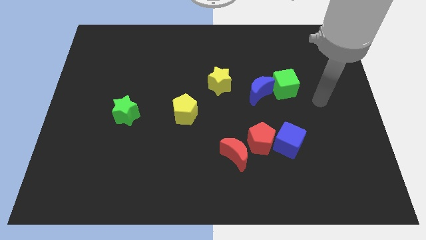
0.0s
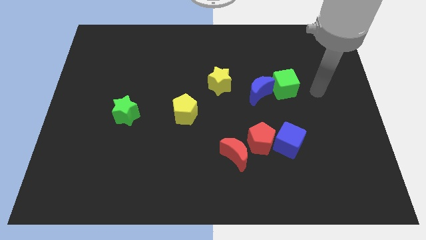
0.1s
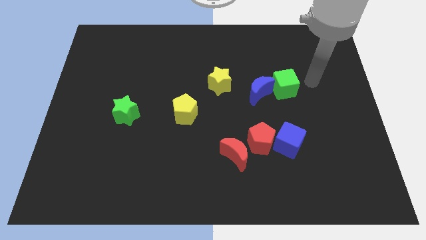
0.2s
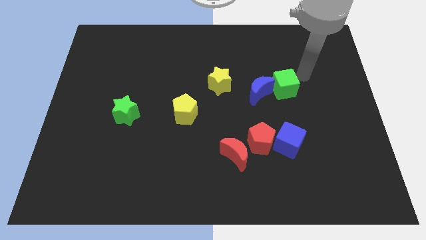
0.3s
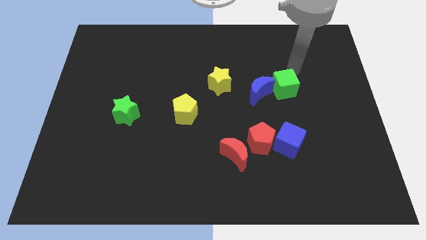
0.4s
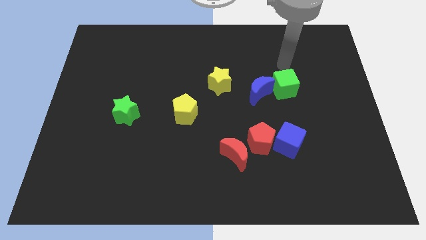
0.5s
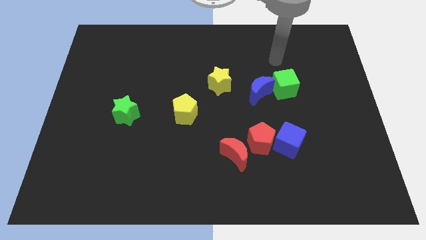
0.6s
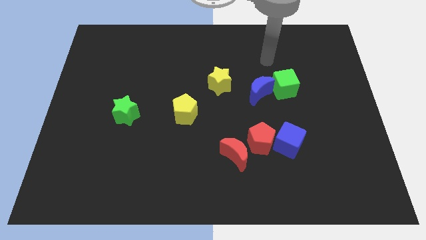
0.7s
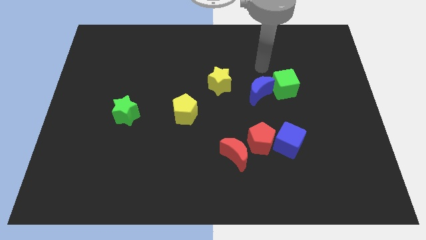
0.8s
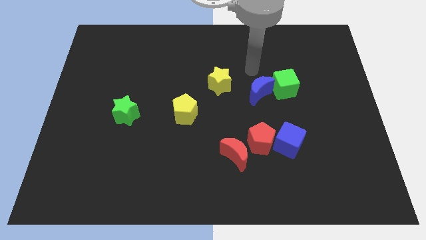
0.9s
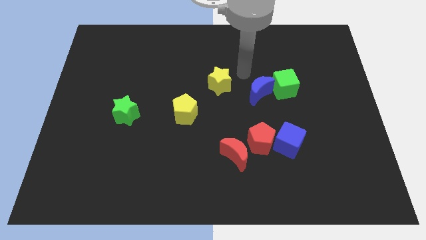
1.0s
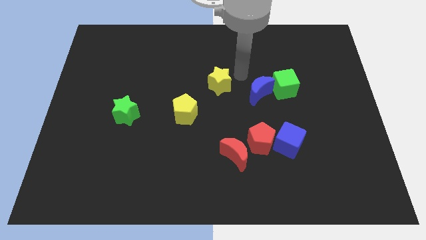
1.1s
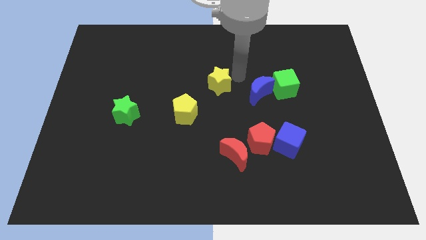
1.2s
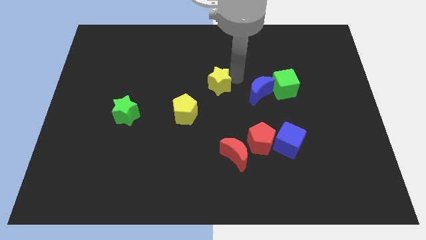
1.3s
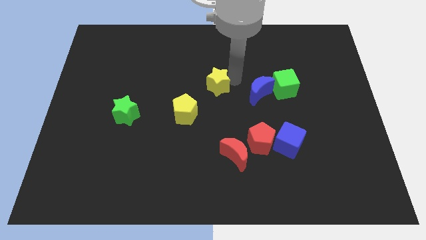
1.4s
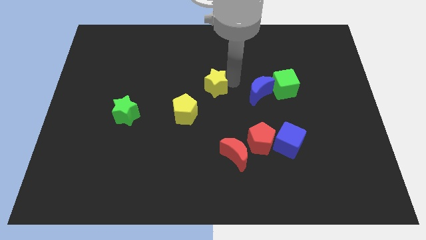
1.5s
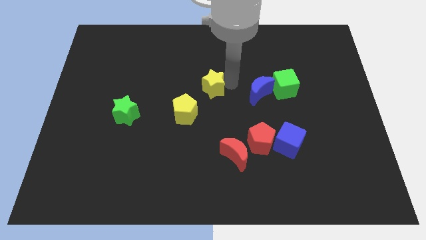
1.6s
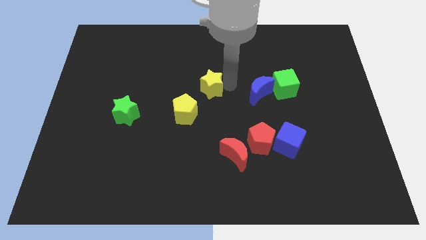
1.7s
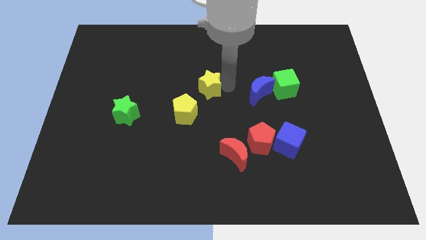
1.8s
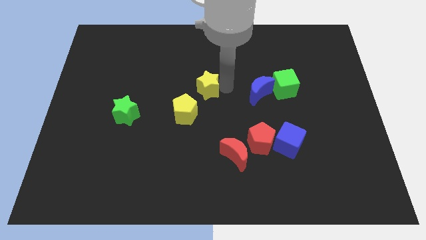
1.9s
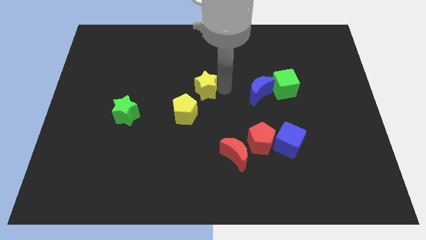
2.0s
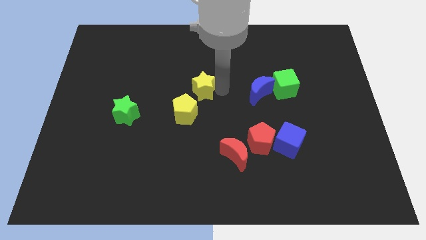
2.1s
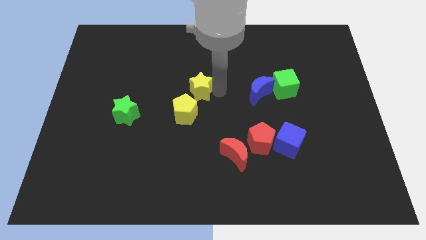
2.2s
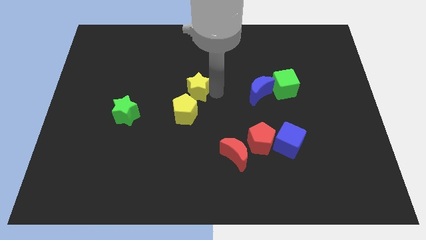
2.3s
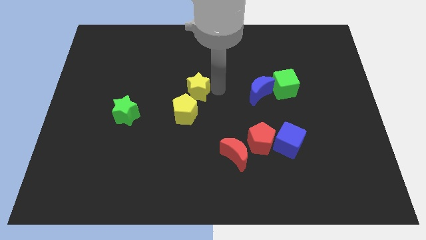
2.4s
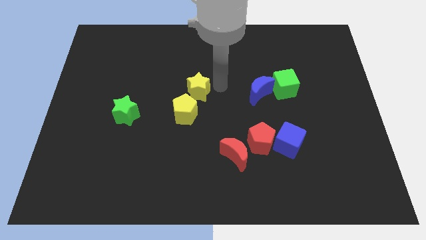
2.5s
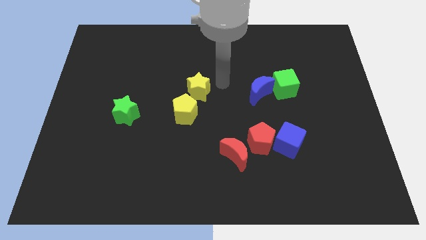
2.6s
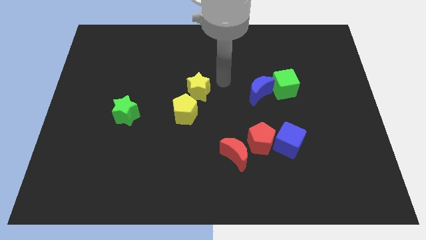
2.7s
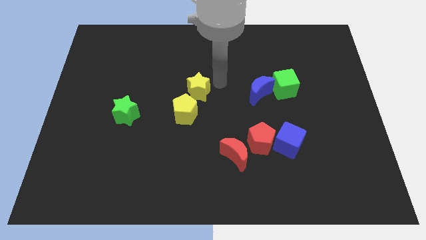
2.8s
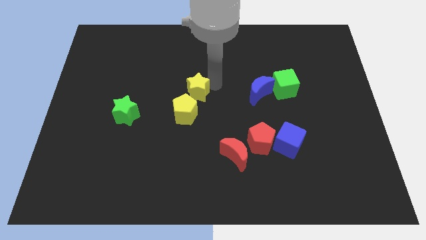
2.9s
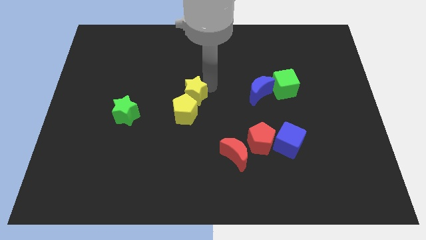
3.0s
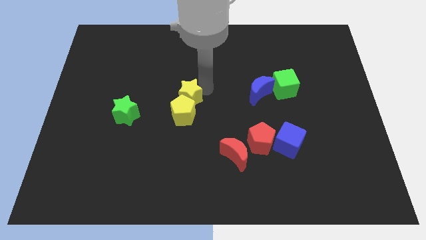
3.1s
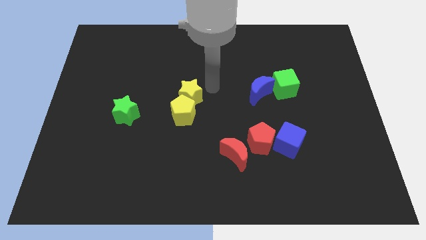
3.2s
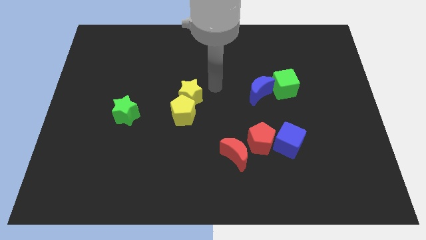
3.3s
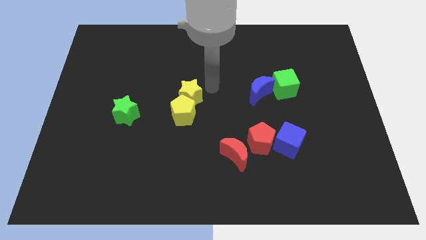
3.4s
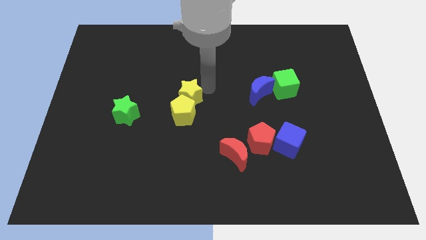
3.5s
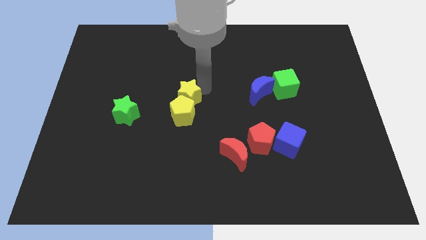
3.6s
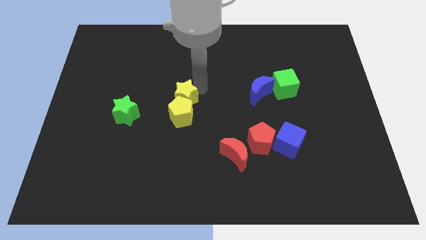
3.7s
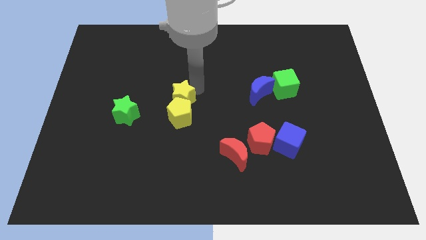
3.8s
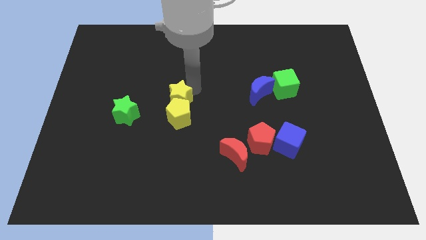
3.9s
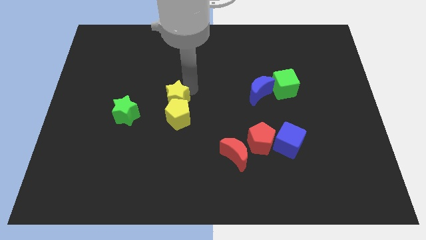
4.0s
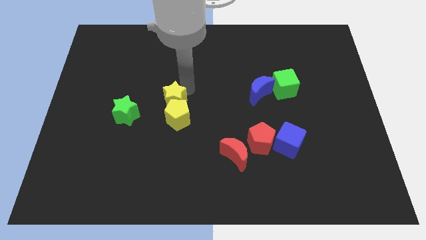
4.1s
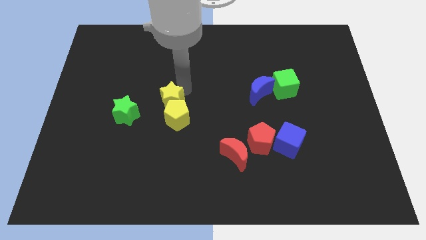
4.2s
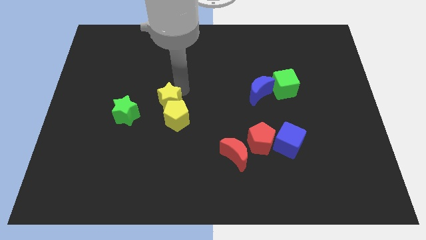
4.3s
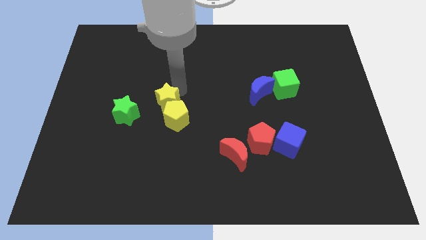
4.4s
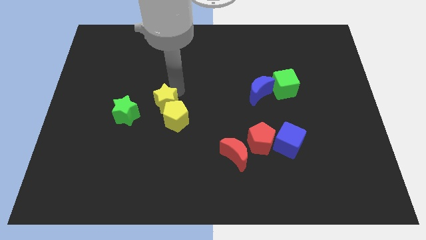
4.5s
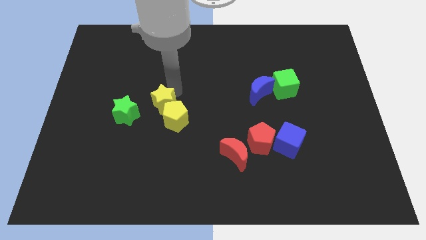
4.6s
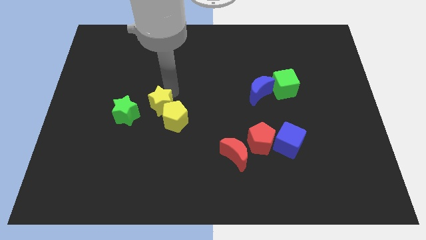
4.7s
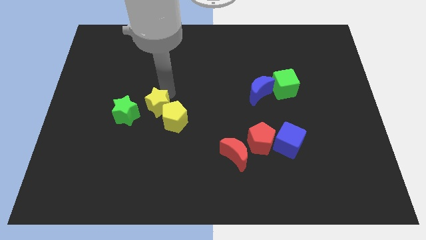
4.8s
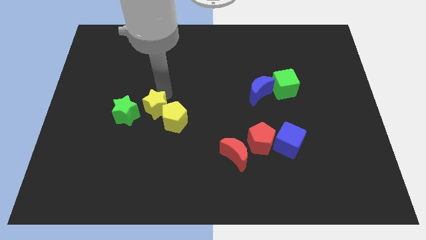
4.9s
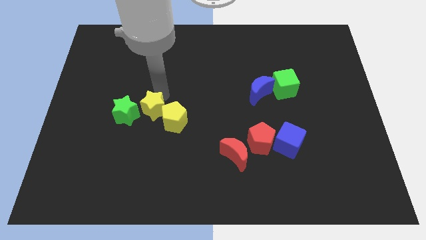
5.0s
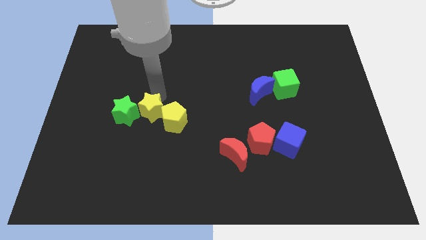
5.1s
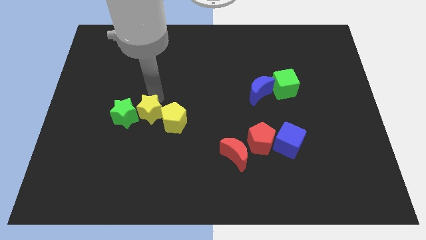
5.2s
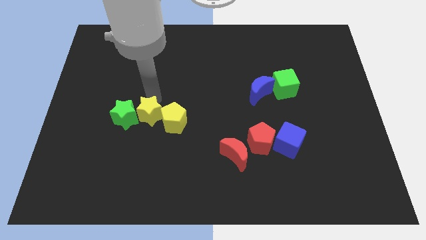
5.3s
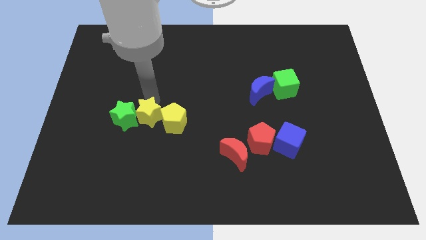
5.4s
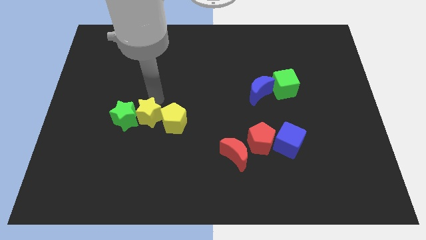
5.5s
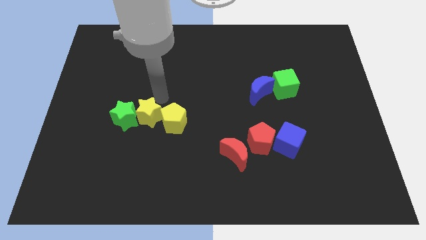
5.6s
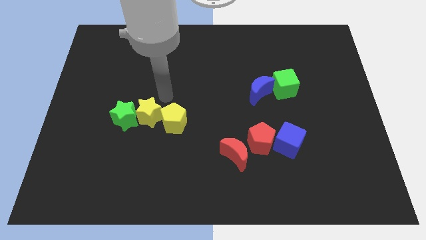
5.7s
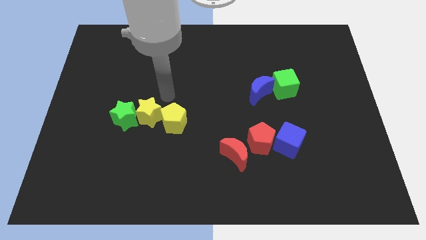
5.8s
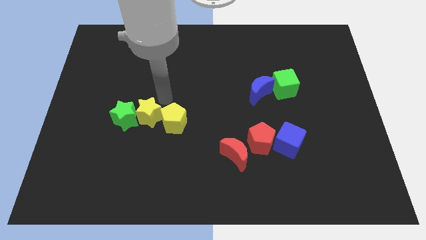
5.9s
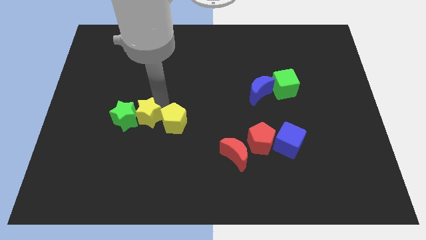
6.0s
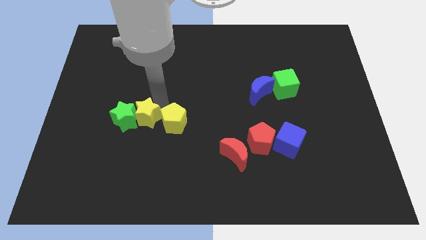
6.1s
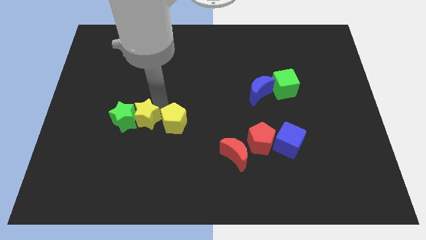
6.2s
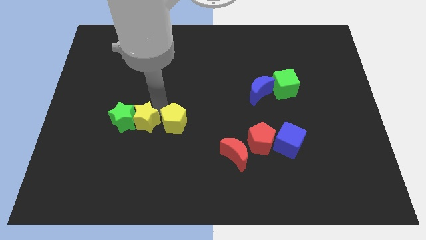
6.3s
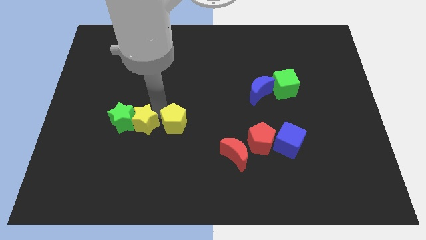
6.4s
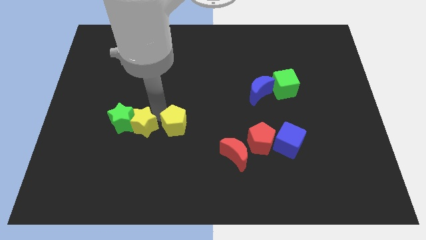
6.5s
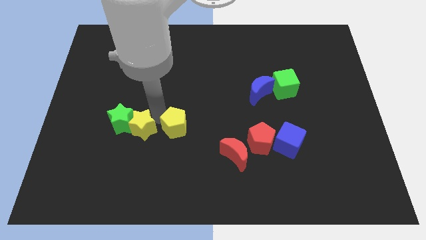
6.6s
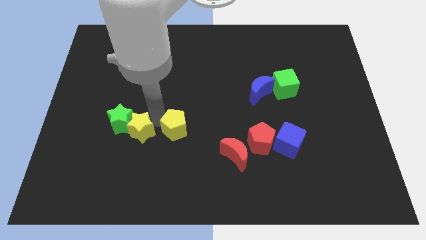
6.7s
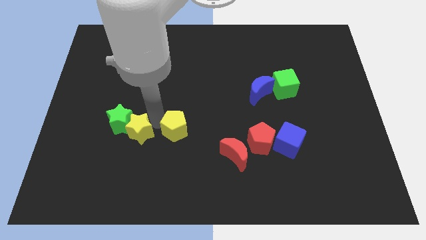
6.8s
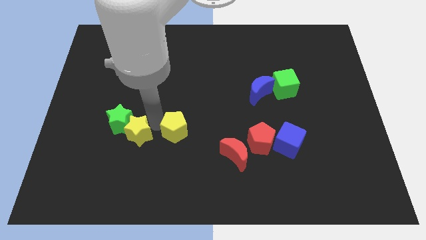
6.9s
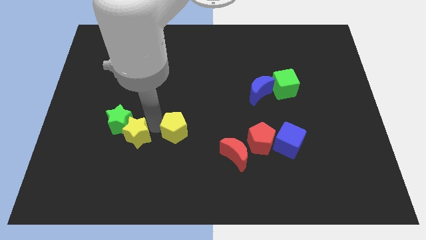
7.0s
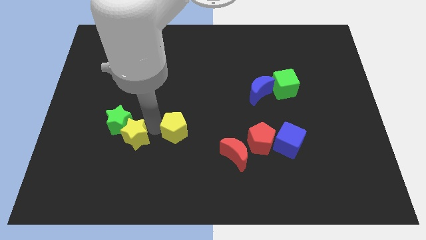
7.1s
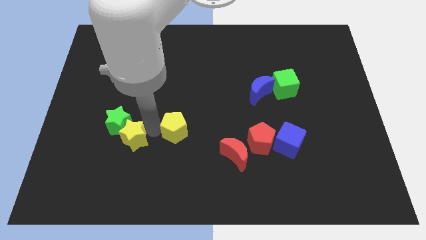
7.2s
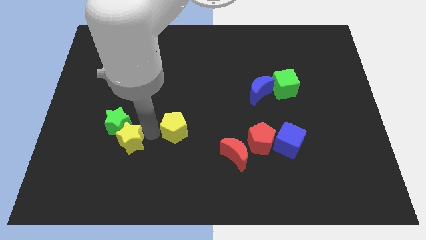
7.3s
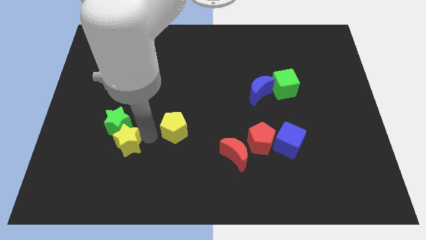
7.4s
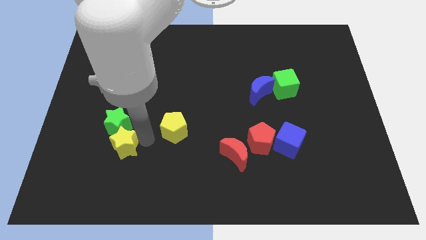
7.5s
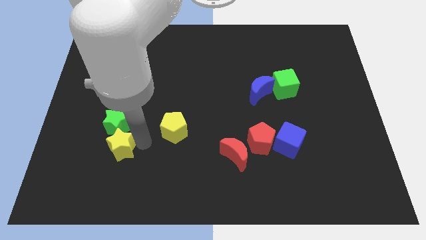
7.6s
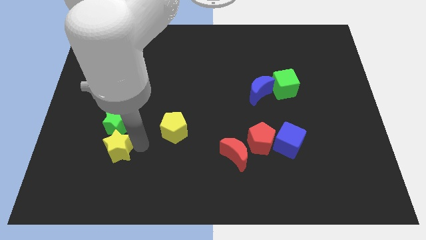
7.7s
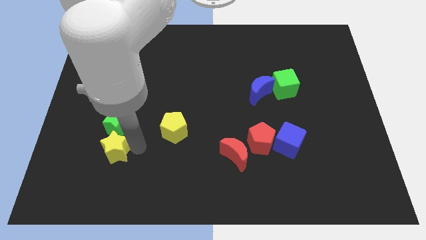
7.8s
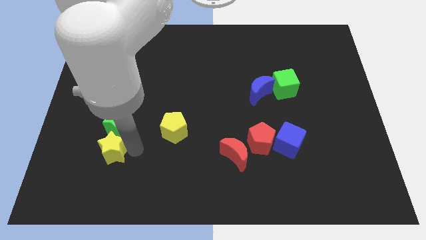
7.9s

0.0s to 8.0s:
push the yellow star to the bottom left of the green star
